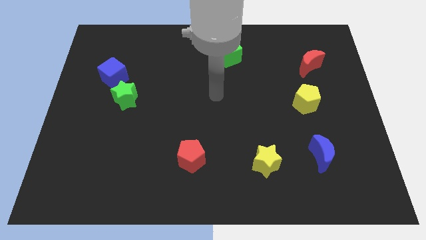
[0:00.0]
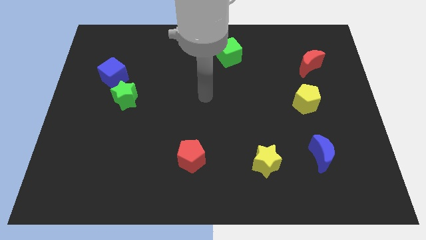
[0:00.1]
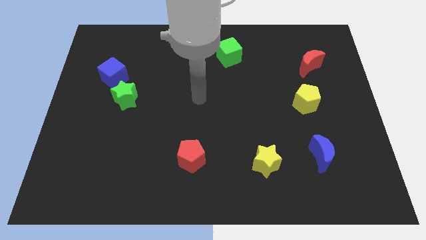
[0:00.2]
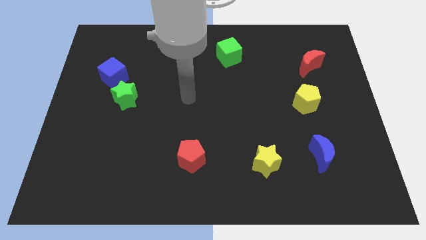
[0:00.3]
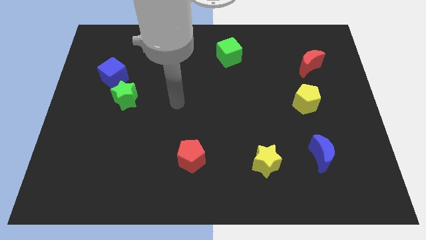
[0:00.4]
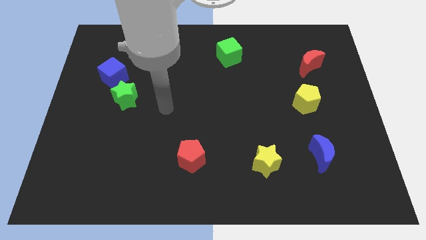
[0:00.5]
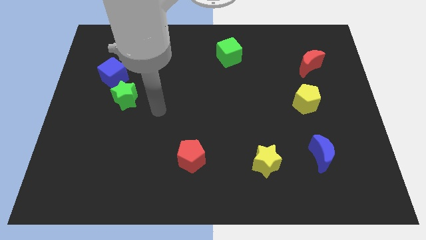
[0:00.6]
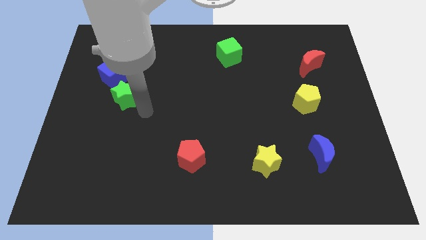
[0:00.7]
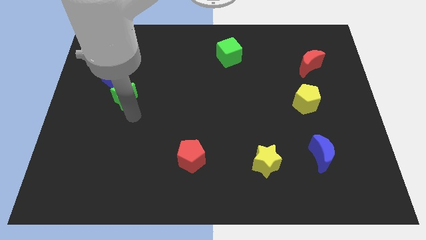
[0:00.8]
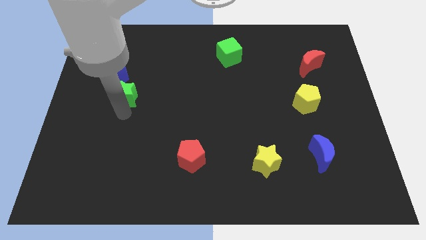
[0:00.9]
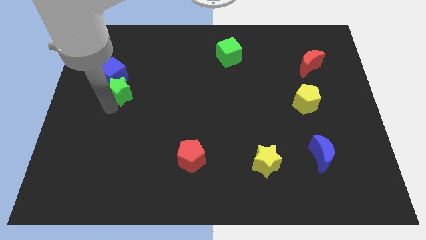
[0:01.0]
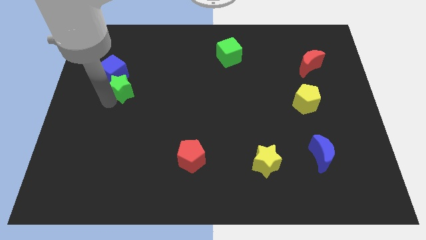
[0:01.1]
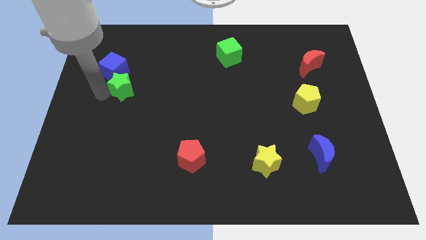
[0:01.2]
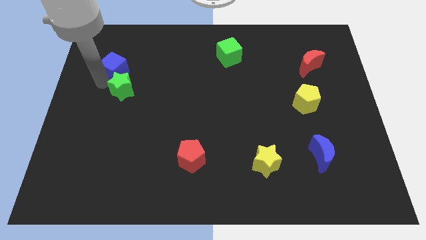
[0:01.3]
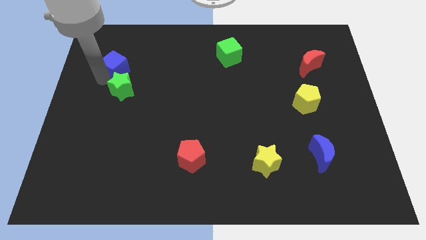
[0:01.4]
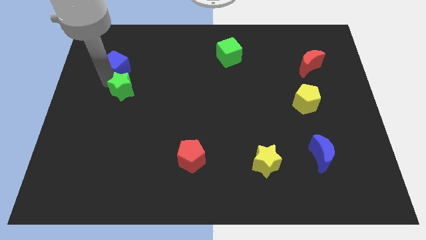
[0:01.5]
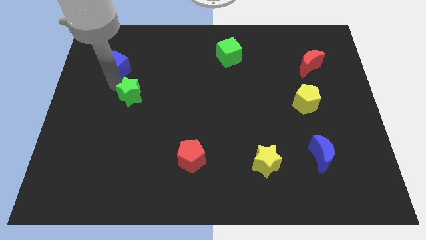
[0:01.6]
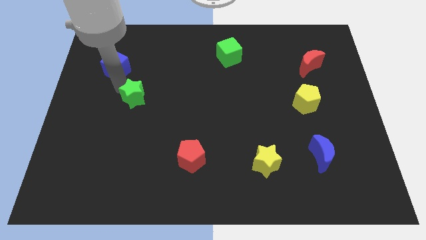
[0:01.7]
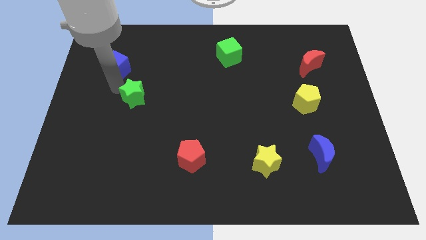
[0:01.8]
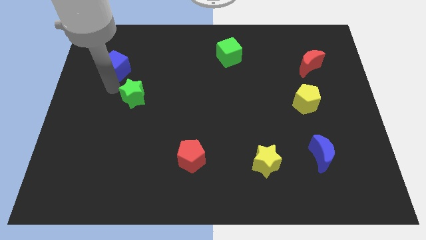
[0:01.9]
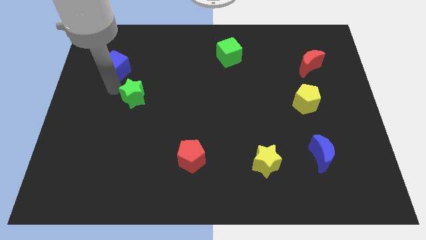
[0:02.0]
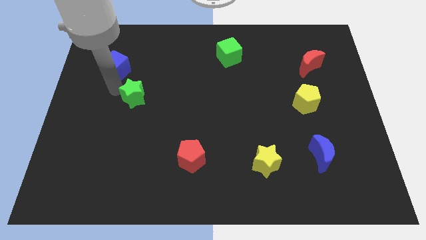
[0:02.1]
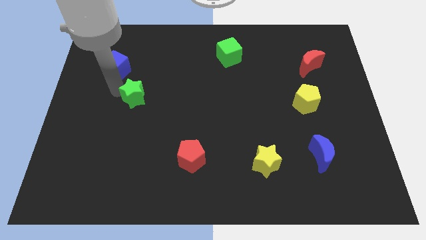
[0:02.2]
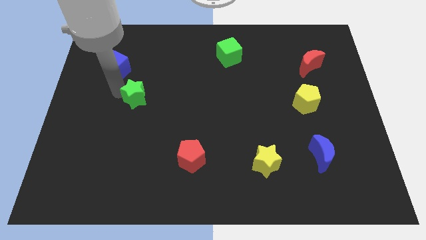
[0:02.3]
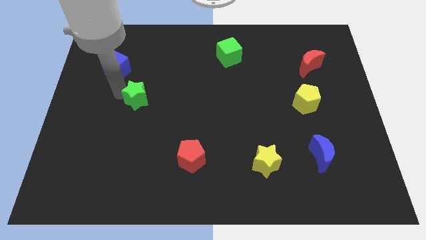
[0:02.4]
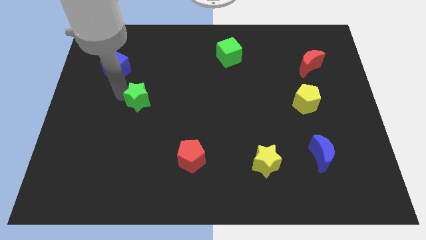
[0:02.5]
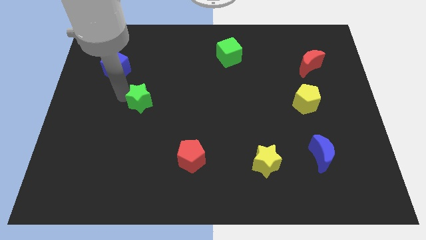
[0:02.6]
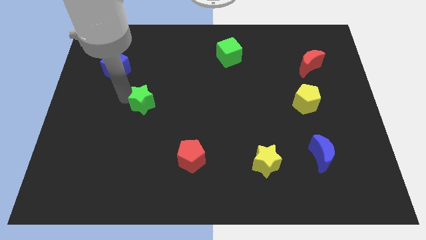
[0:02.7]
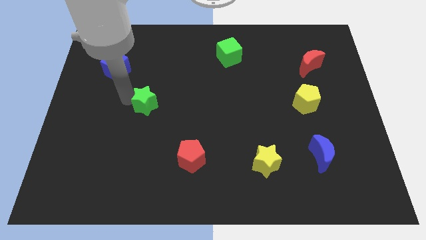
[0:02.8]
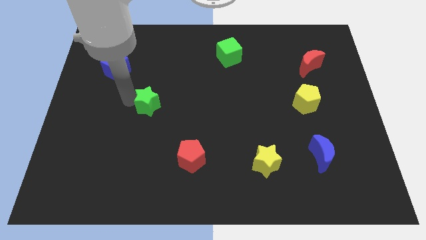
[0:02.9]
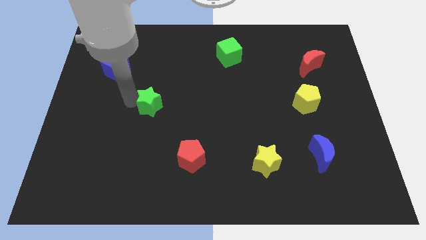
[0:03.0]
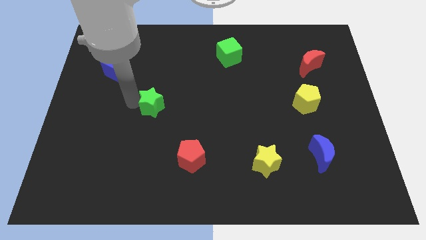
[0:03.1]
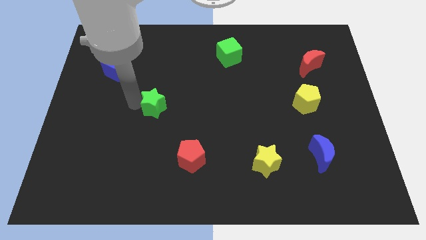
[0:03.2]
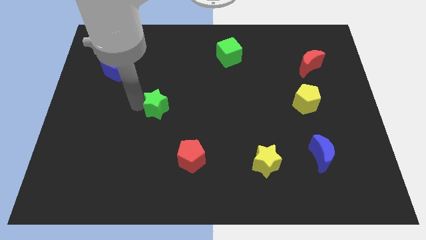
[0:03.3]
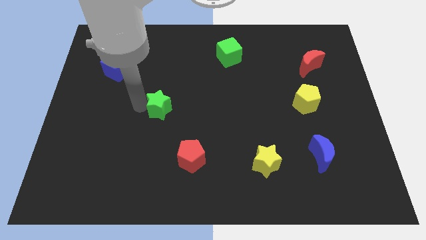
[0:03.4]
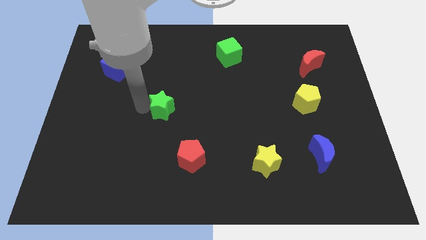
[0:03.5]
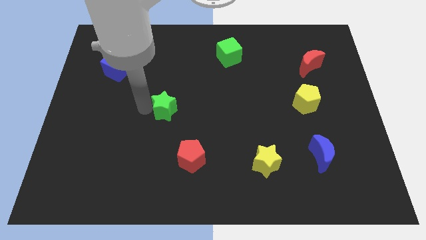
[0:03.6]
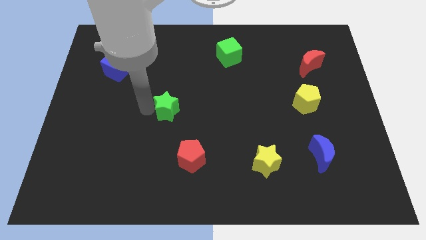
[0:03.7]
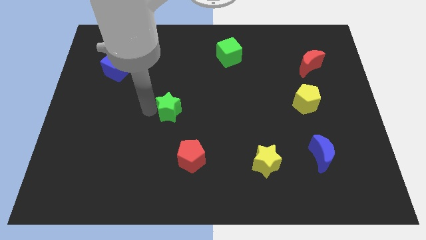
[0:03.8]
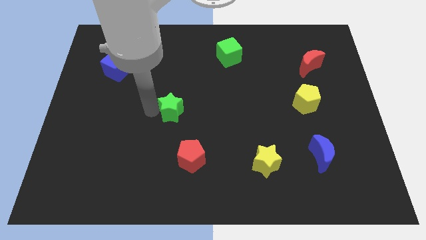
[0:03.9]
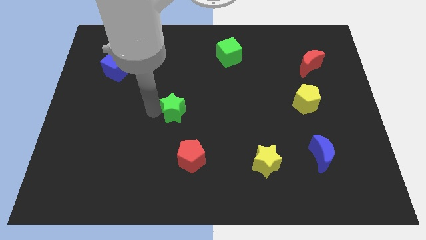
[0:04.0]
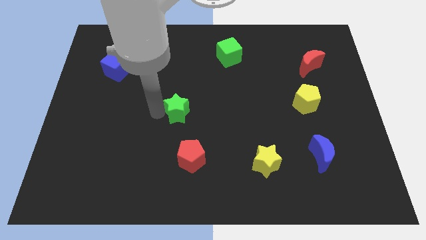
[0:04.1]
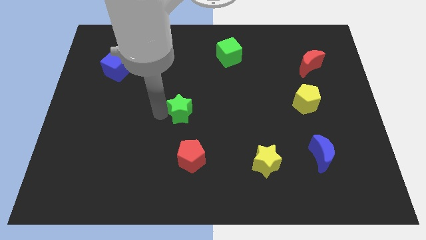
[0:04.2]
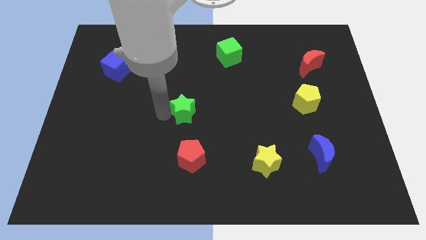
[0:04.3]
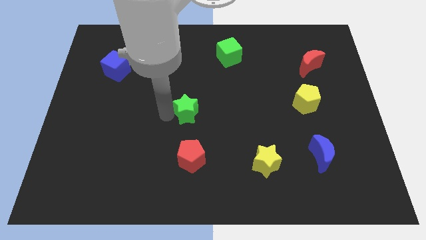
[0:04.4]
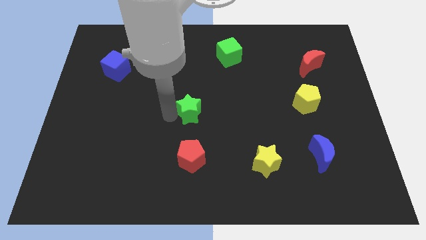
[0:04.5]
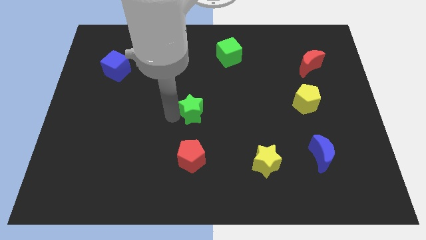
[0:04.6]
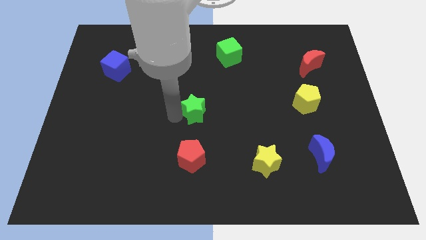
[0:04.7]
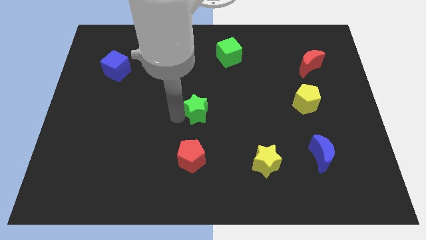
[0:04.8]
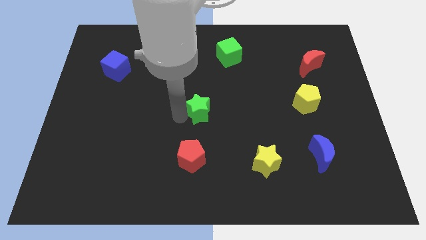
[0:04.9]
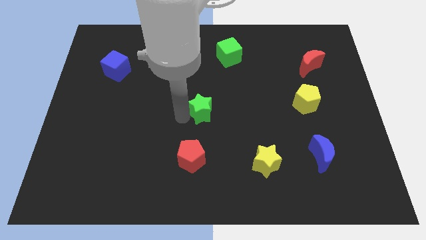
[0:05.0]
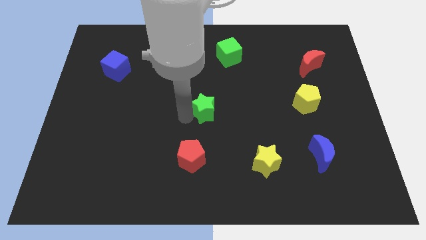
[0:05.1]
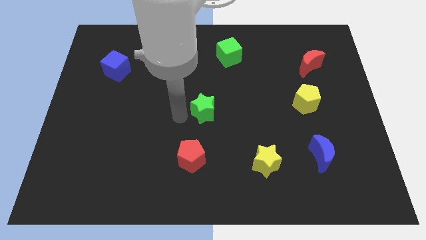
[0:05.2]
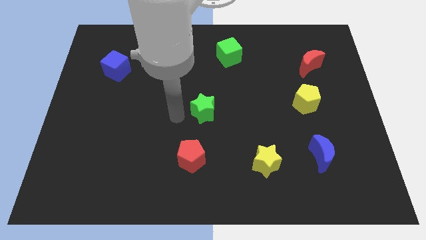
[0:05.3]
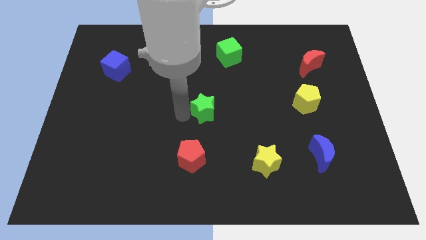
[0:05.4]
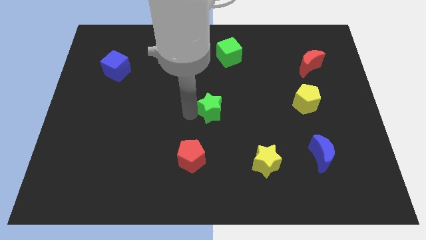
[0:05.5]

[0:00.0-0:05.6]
slide the green star right

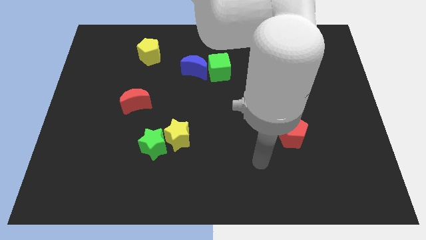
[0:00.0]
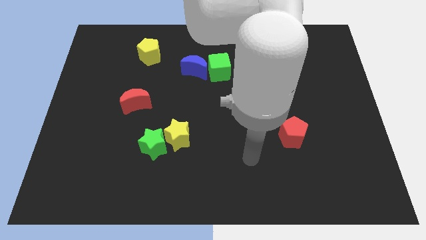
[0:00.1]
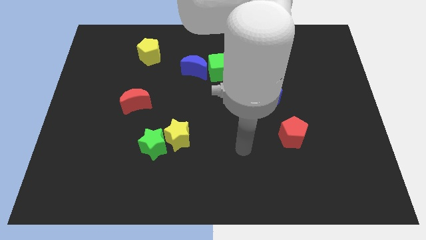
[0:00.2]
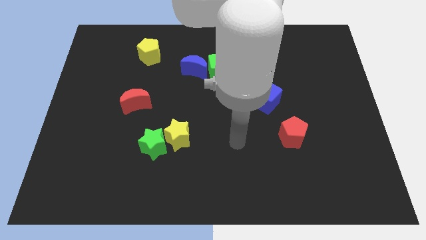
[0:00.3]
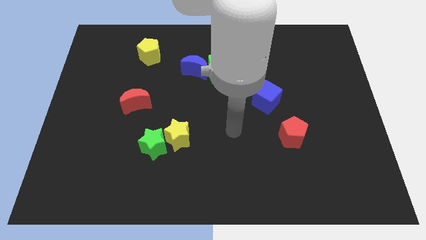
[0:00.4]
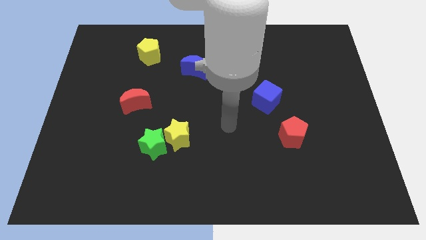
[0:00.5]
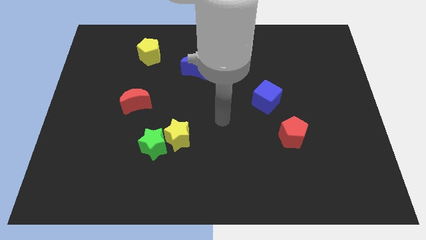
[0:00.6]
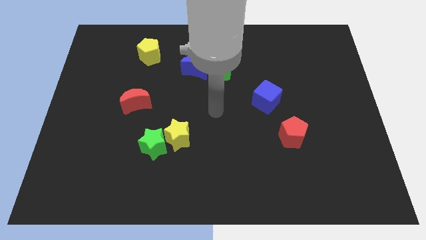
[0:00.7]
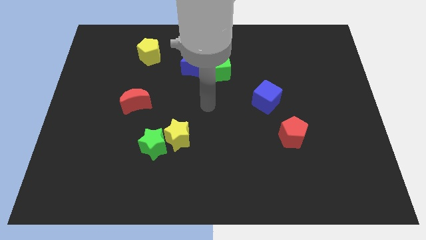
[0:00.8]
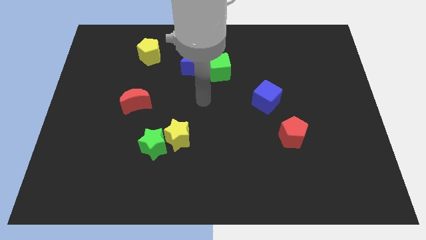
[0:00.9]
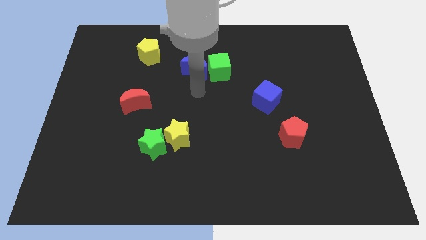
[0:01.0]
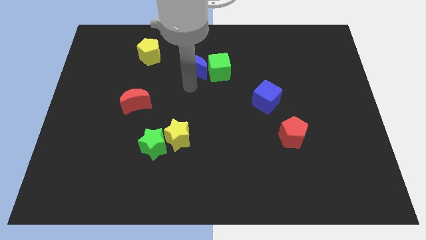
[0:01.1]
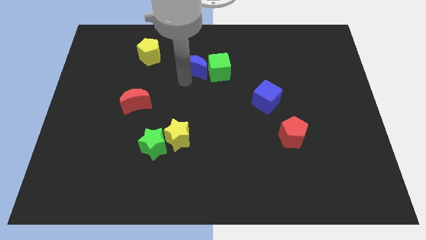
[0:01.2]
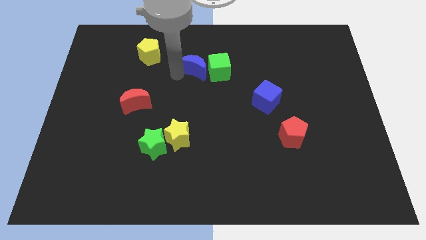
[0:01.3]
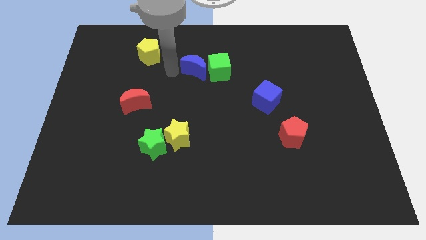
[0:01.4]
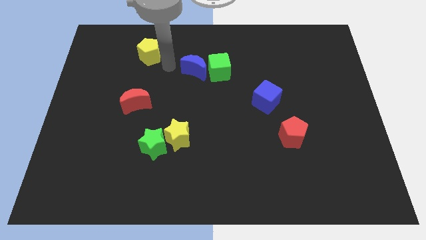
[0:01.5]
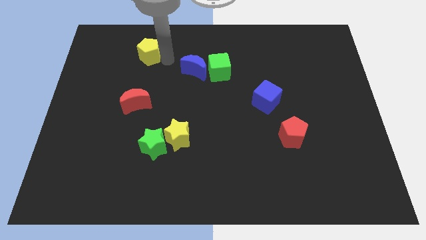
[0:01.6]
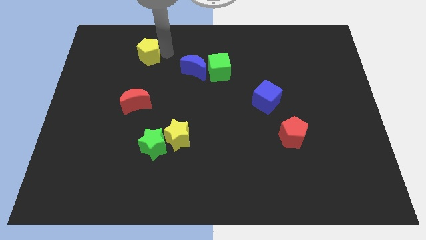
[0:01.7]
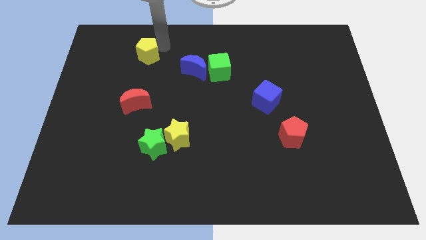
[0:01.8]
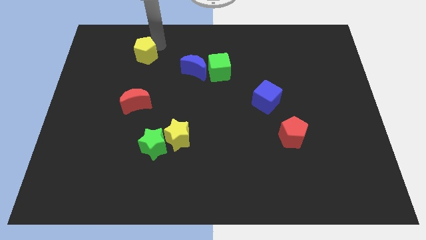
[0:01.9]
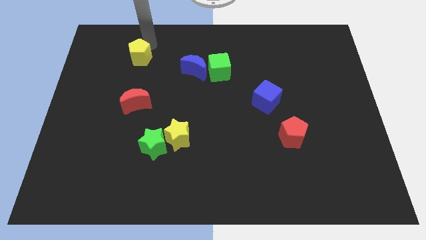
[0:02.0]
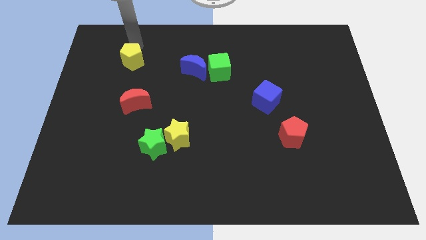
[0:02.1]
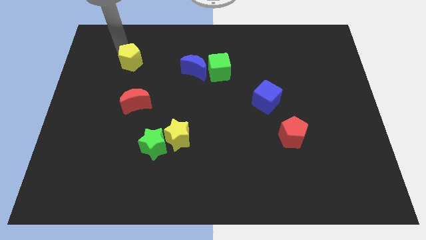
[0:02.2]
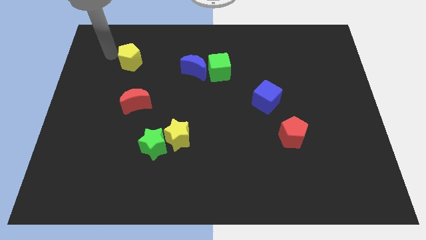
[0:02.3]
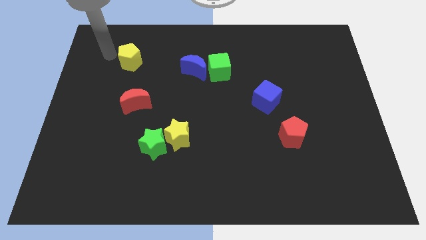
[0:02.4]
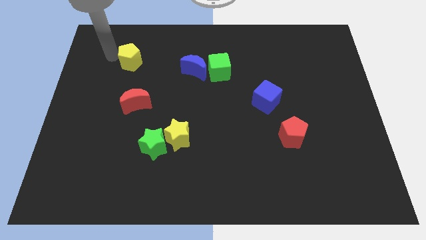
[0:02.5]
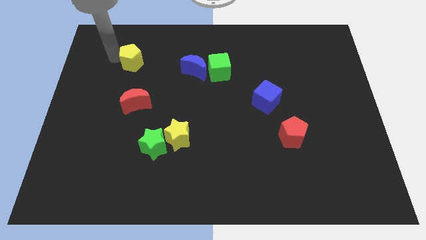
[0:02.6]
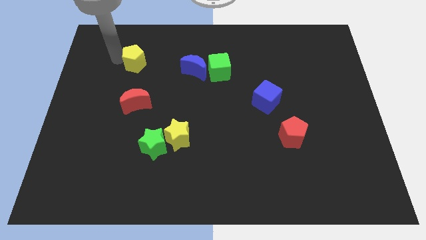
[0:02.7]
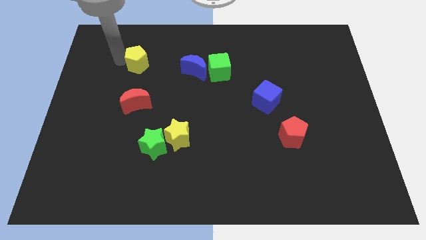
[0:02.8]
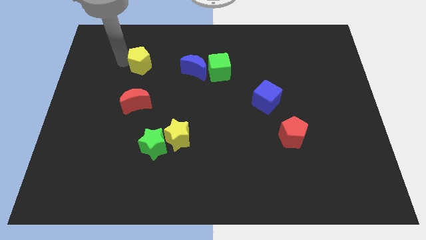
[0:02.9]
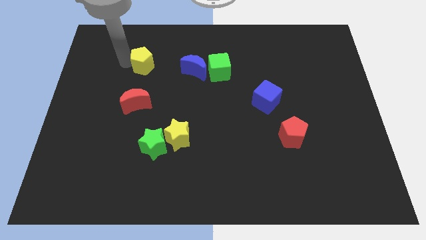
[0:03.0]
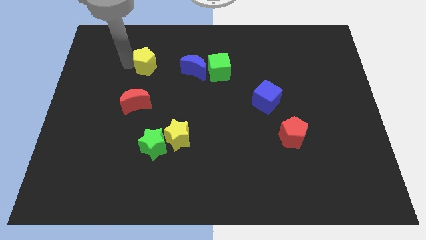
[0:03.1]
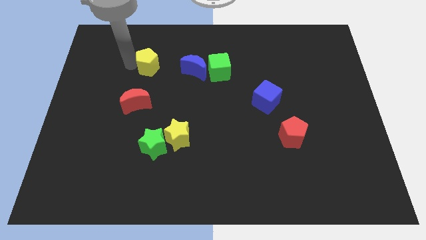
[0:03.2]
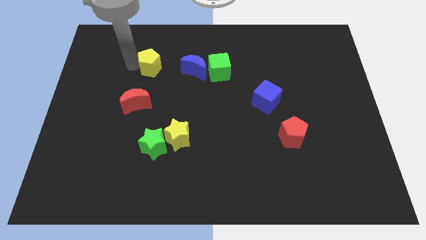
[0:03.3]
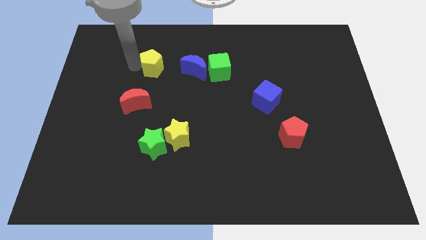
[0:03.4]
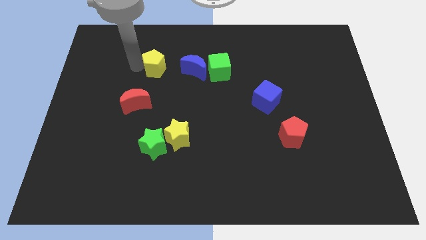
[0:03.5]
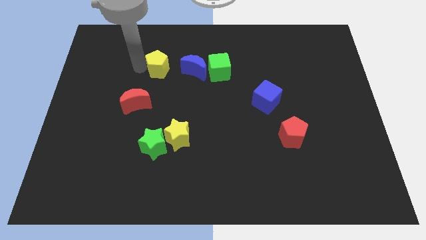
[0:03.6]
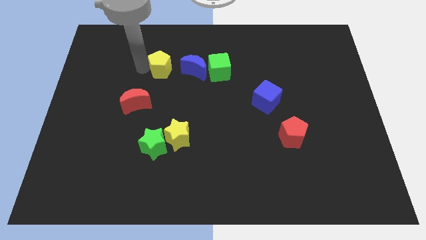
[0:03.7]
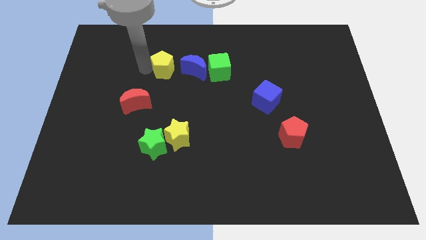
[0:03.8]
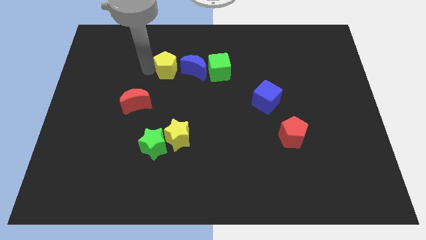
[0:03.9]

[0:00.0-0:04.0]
slightly slide the yellow pentagon down and to the right diagonally
